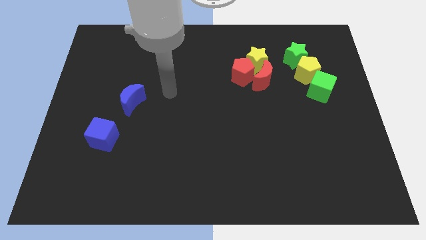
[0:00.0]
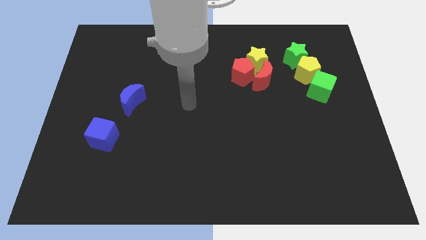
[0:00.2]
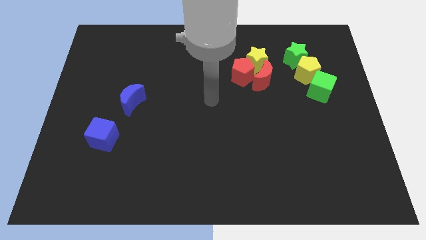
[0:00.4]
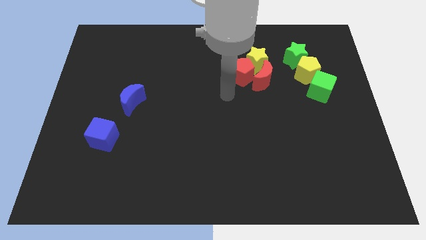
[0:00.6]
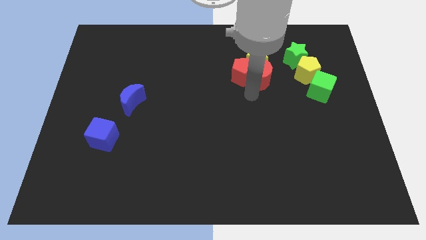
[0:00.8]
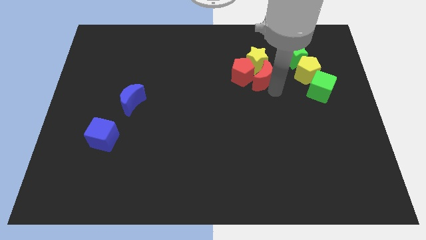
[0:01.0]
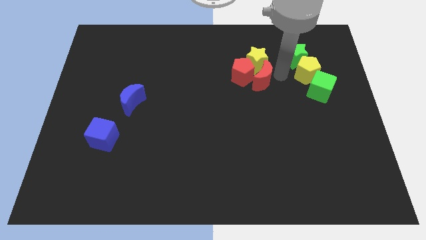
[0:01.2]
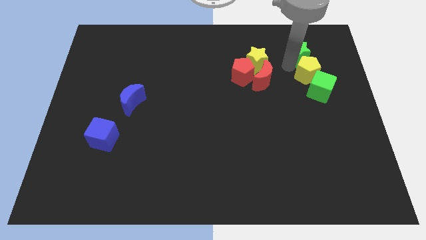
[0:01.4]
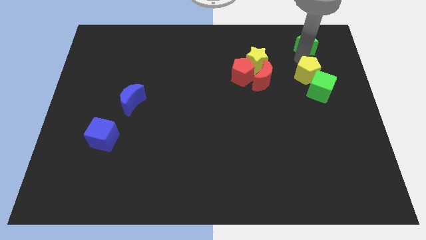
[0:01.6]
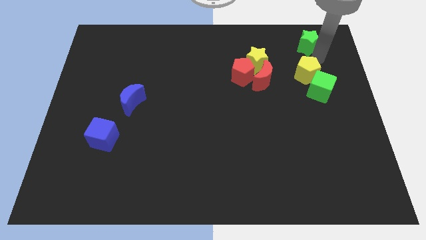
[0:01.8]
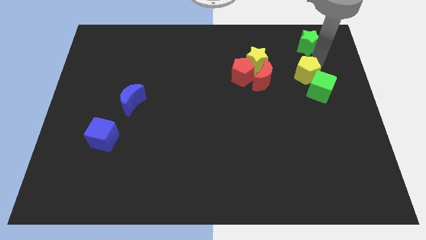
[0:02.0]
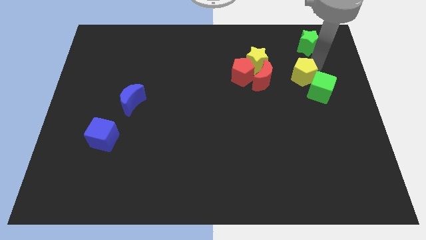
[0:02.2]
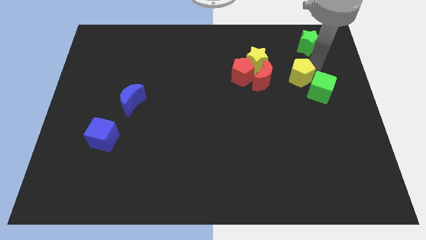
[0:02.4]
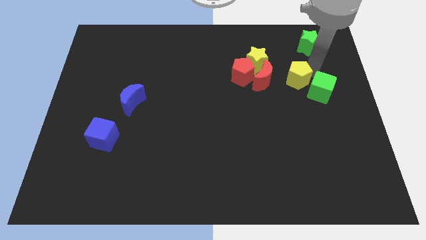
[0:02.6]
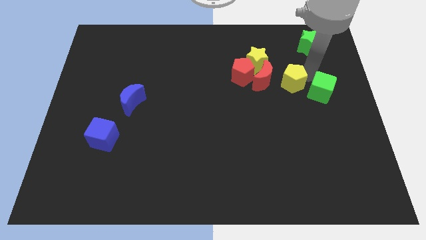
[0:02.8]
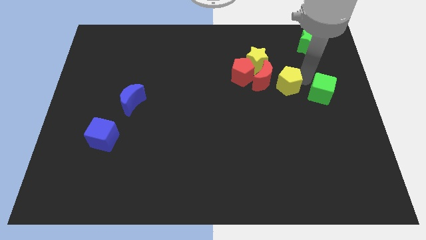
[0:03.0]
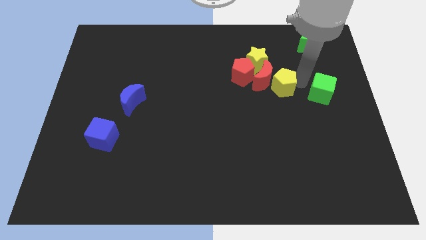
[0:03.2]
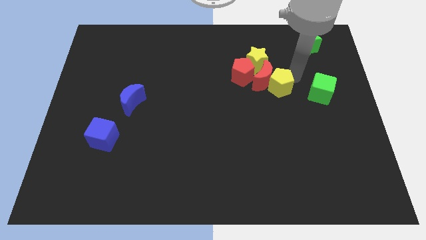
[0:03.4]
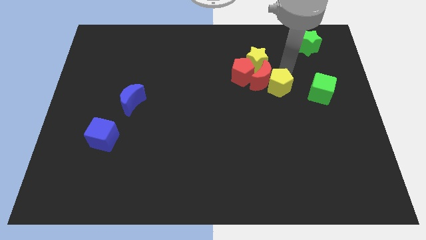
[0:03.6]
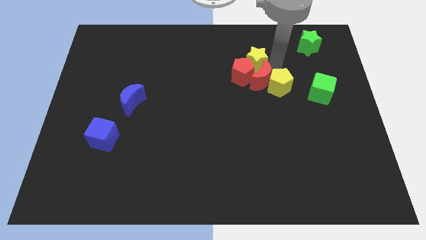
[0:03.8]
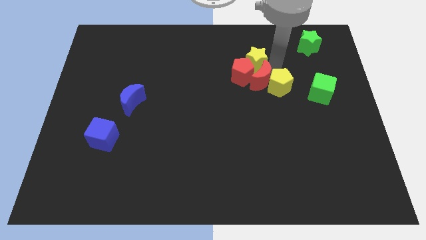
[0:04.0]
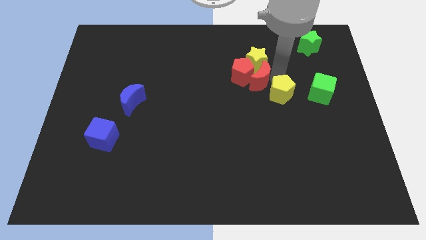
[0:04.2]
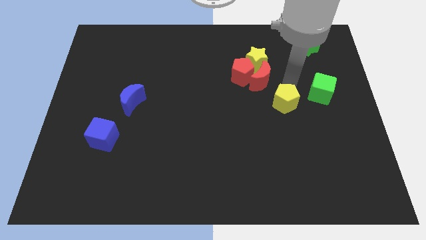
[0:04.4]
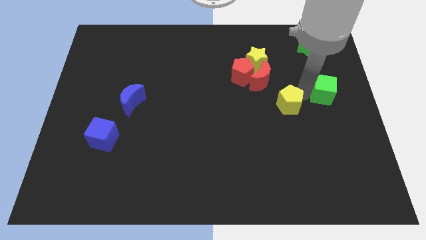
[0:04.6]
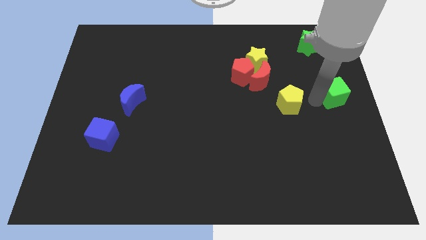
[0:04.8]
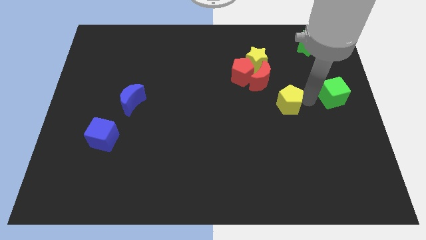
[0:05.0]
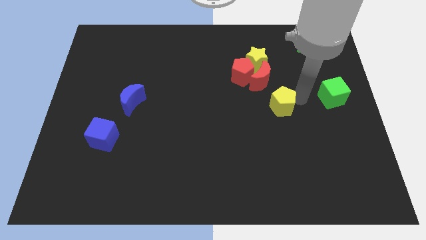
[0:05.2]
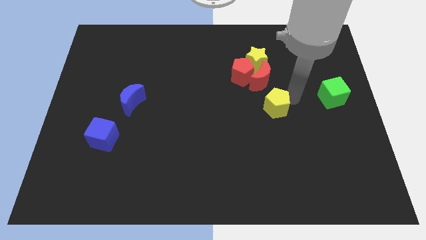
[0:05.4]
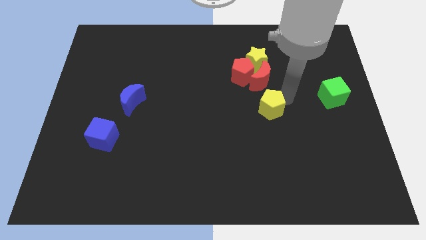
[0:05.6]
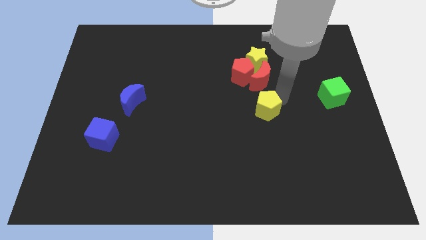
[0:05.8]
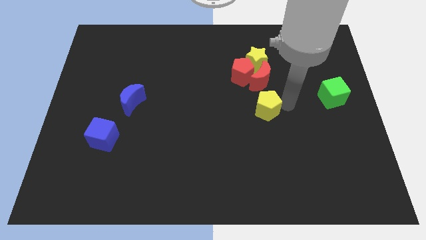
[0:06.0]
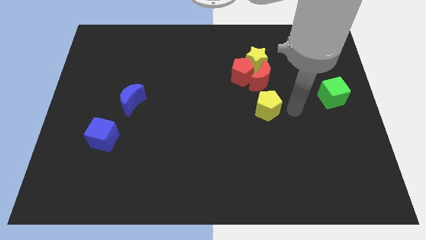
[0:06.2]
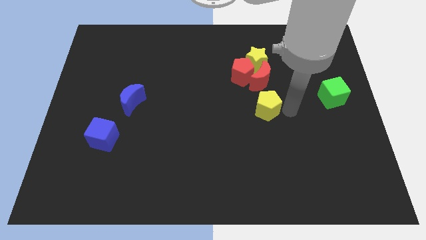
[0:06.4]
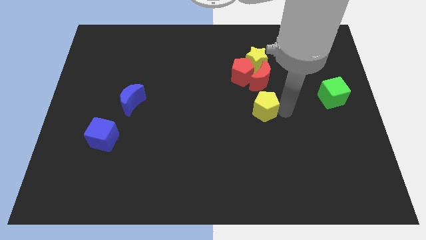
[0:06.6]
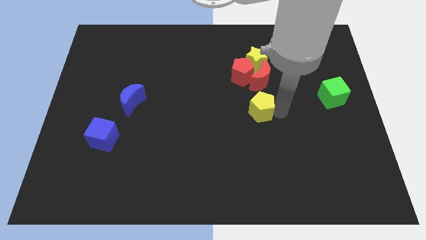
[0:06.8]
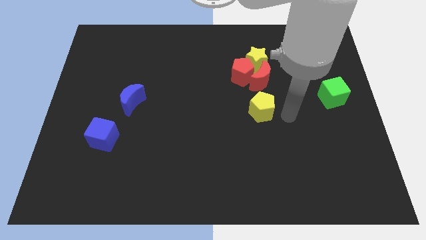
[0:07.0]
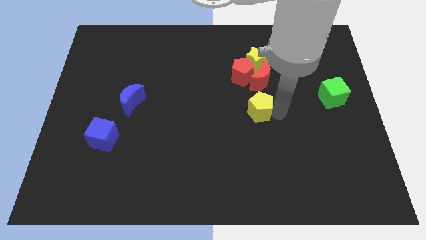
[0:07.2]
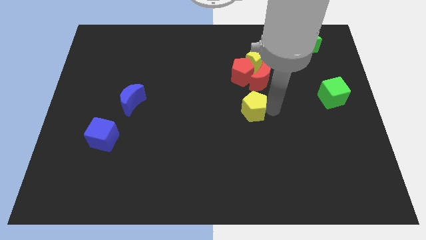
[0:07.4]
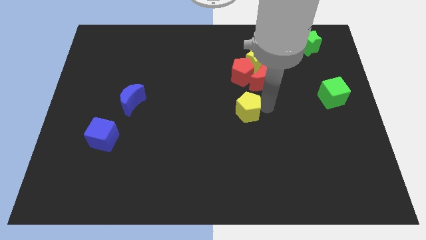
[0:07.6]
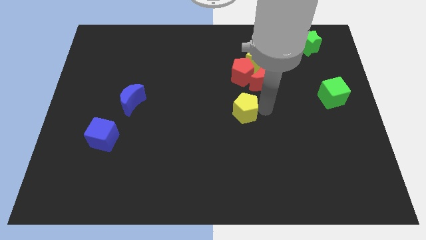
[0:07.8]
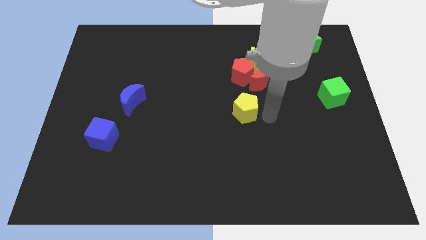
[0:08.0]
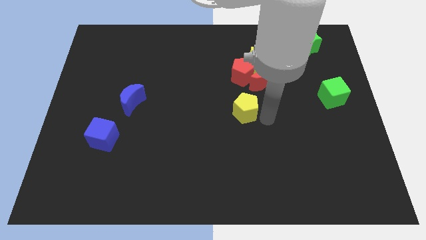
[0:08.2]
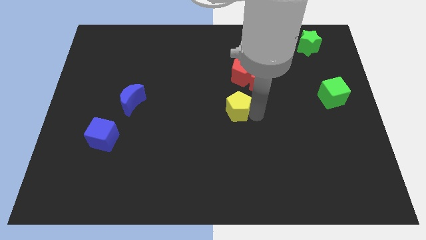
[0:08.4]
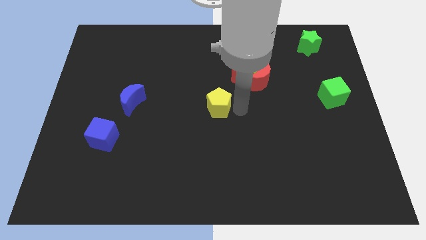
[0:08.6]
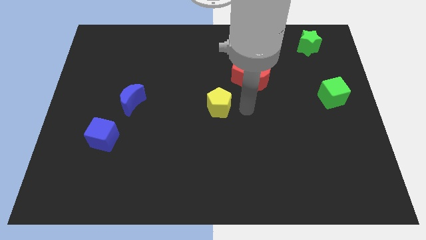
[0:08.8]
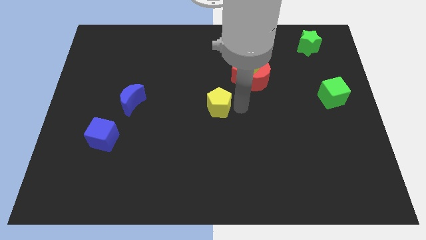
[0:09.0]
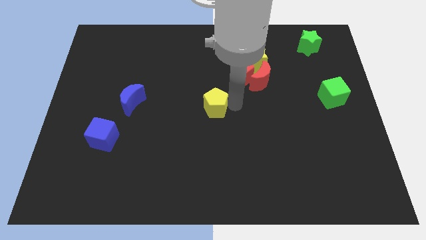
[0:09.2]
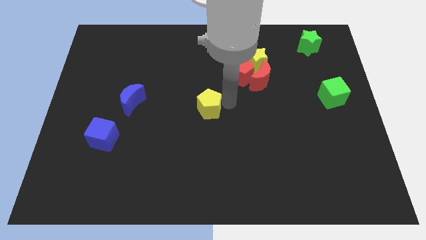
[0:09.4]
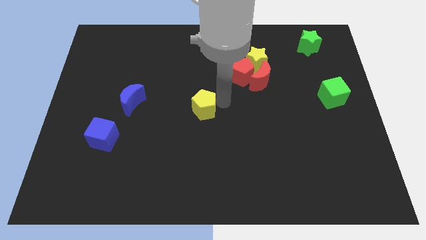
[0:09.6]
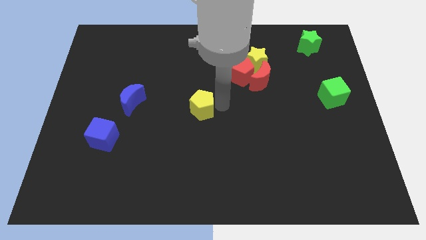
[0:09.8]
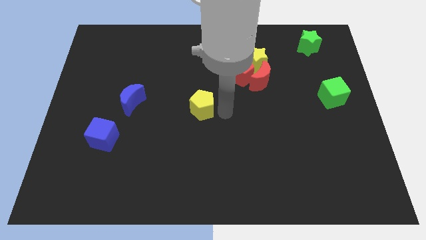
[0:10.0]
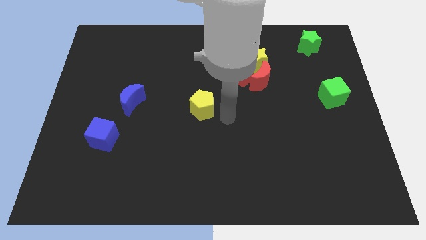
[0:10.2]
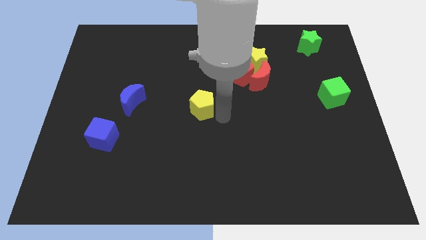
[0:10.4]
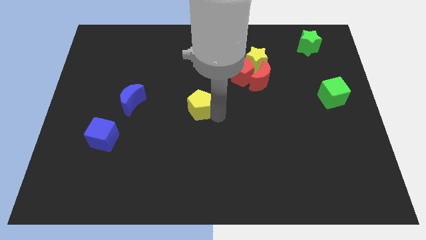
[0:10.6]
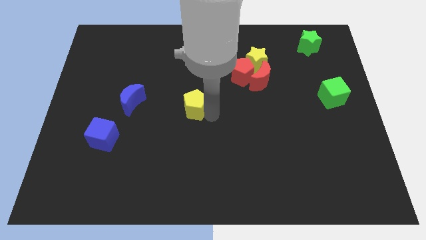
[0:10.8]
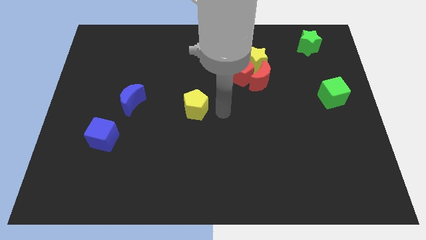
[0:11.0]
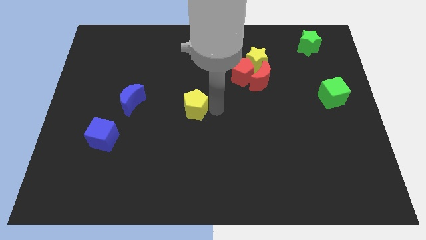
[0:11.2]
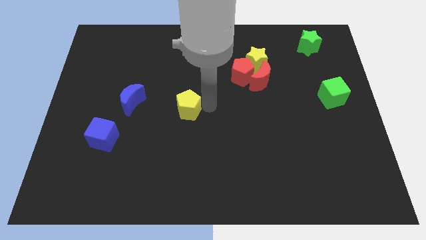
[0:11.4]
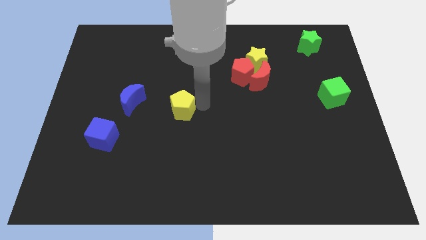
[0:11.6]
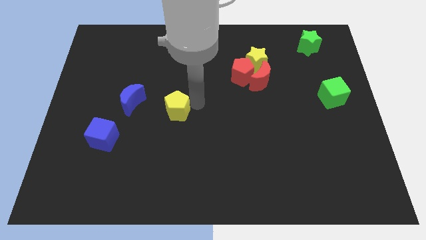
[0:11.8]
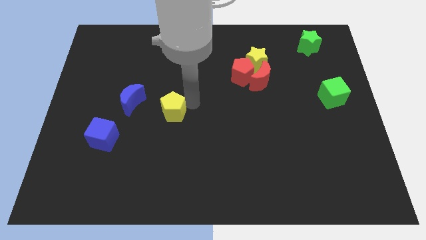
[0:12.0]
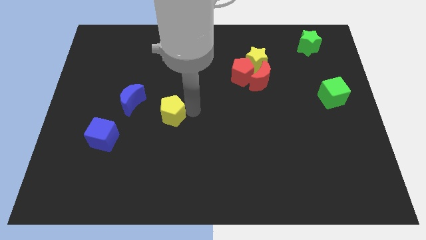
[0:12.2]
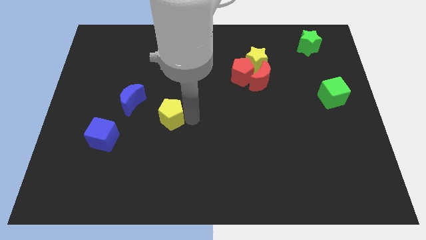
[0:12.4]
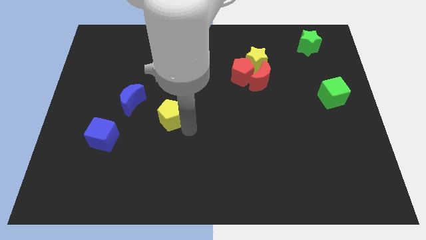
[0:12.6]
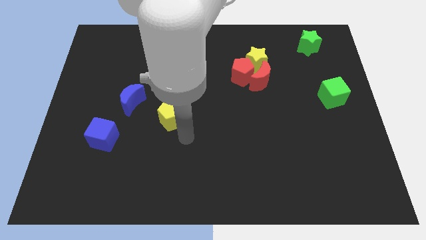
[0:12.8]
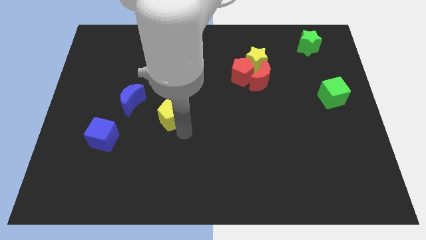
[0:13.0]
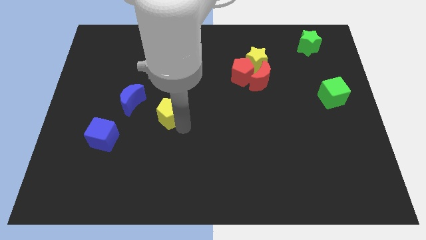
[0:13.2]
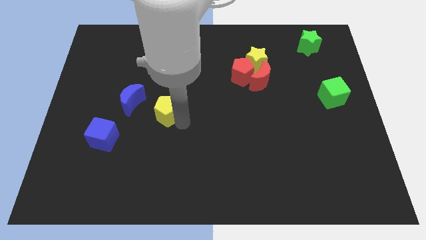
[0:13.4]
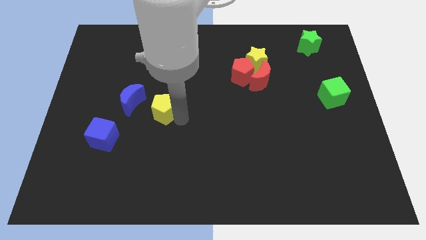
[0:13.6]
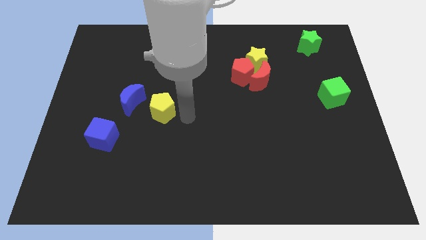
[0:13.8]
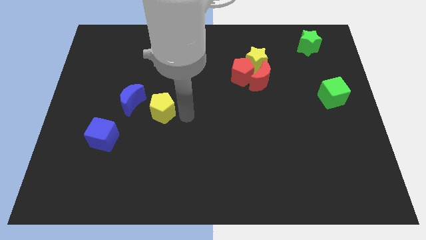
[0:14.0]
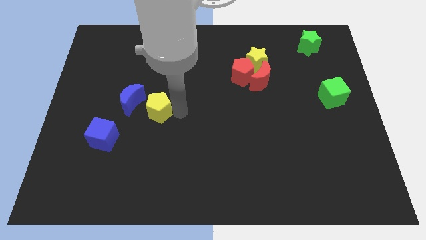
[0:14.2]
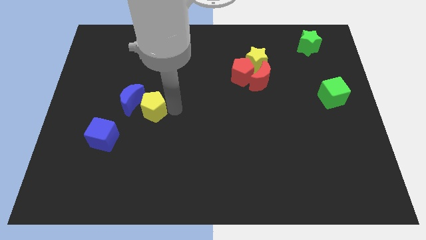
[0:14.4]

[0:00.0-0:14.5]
move the yellow pentagon close to the blue moon
